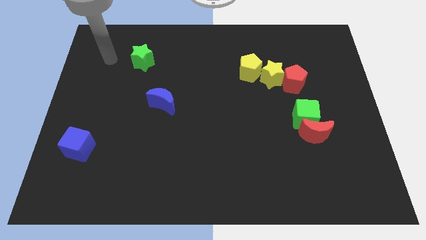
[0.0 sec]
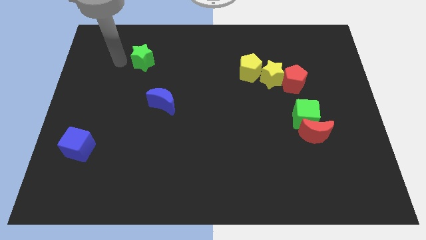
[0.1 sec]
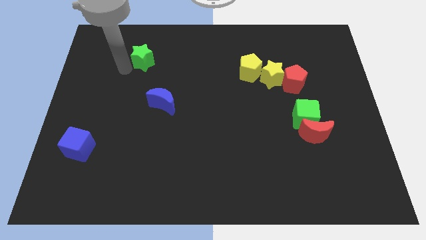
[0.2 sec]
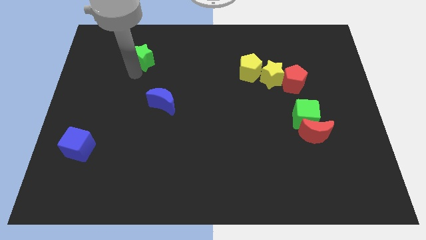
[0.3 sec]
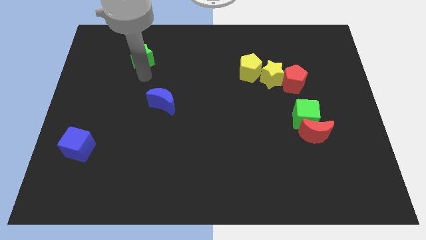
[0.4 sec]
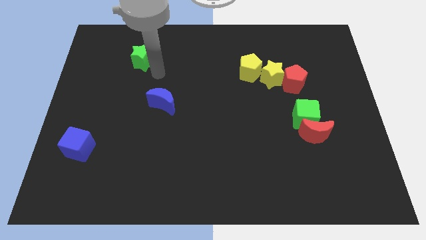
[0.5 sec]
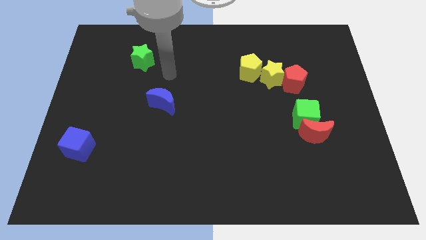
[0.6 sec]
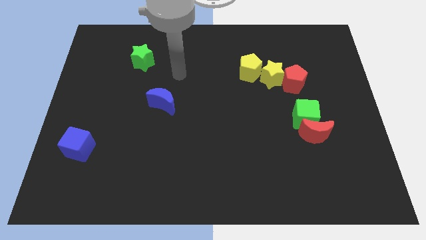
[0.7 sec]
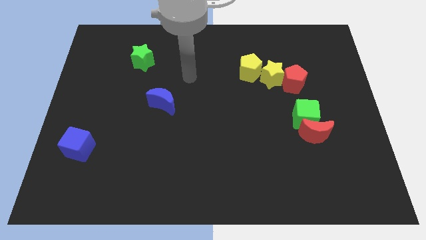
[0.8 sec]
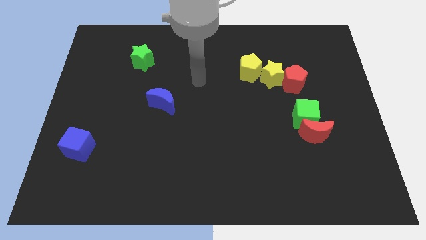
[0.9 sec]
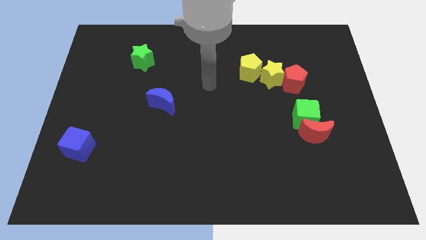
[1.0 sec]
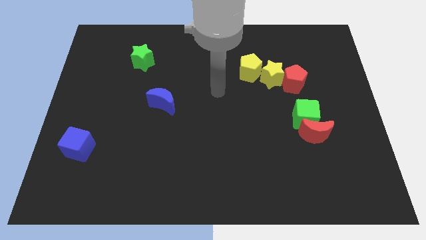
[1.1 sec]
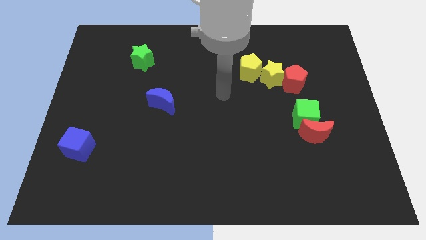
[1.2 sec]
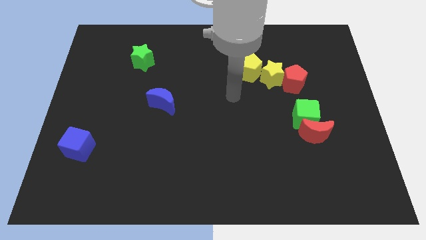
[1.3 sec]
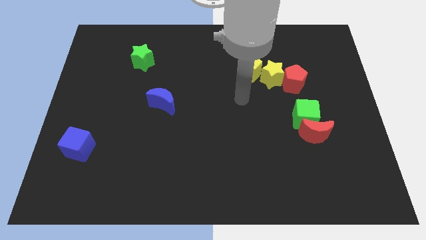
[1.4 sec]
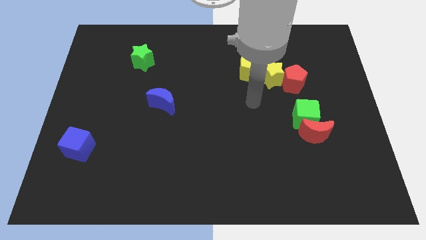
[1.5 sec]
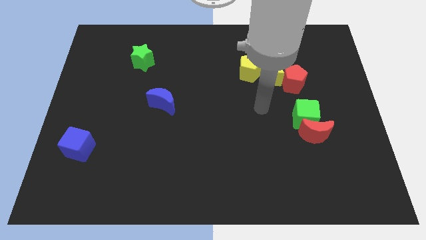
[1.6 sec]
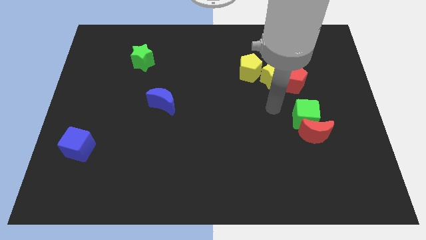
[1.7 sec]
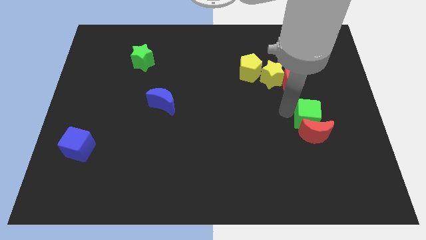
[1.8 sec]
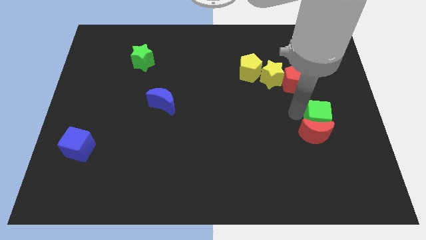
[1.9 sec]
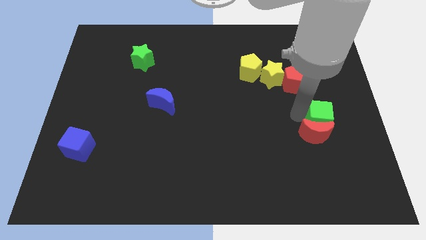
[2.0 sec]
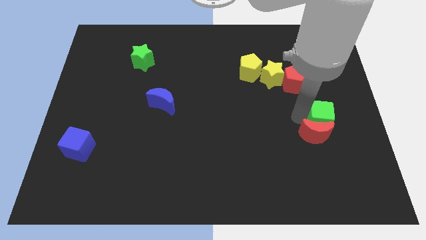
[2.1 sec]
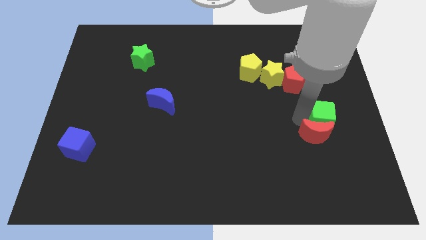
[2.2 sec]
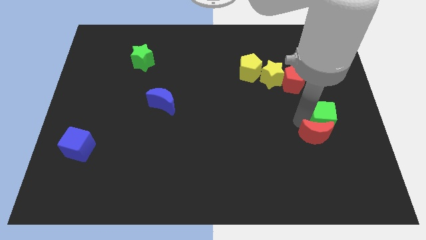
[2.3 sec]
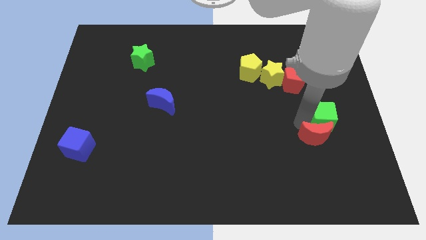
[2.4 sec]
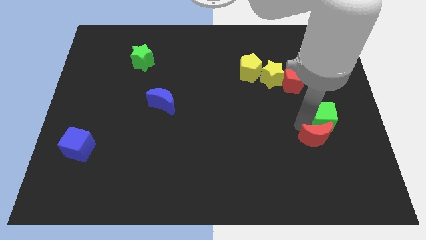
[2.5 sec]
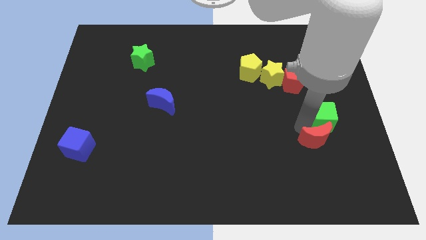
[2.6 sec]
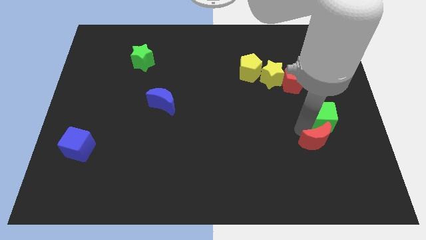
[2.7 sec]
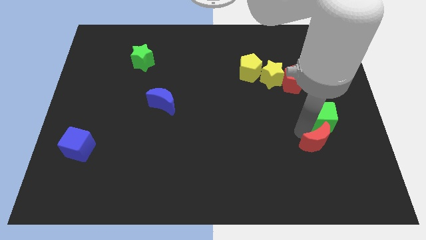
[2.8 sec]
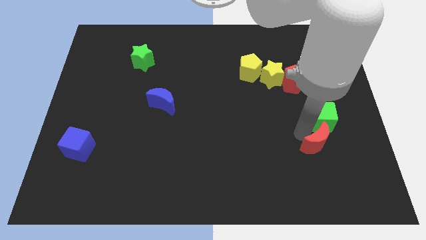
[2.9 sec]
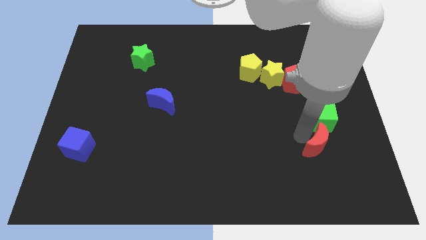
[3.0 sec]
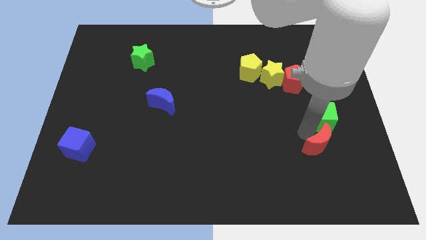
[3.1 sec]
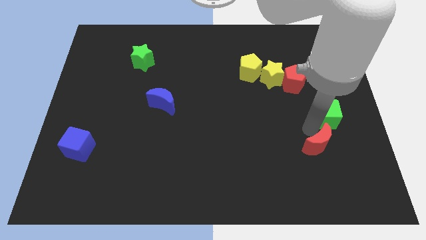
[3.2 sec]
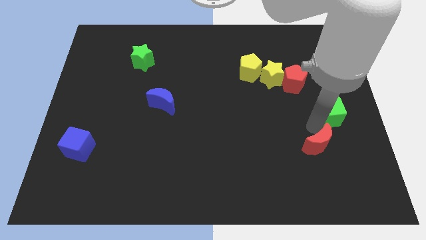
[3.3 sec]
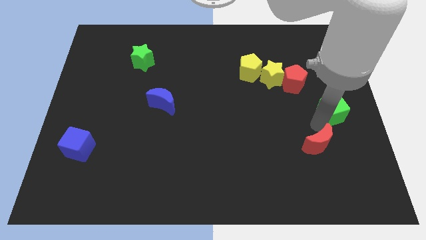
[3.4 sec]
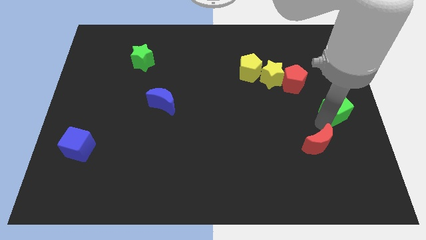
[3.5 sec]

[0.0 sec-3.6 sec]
separate the red moon from the green cube

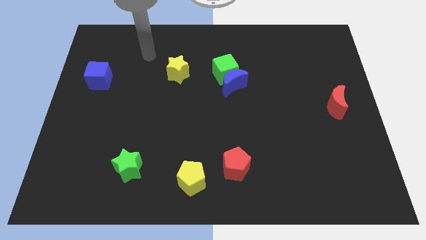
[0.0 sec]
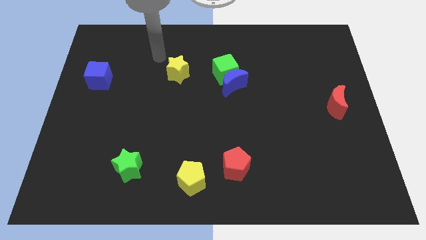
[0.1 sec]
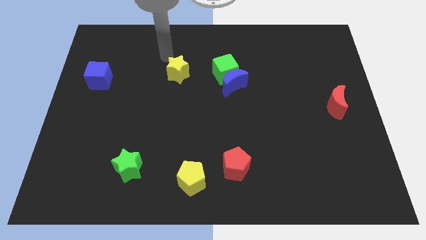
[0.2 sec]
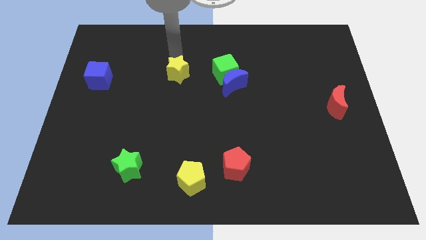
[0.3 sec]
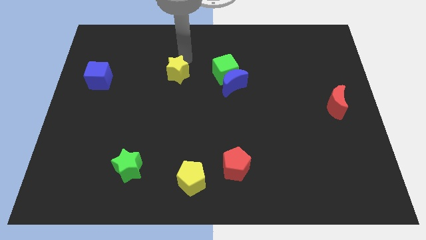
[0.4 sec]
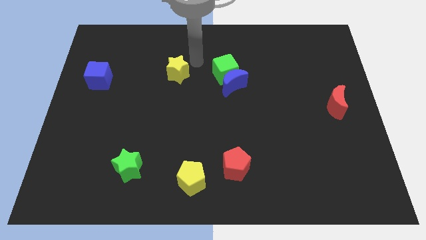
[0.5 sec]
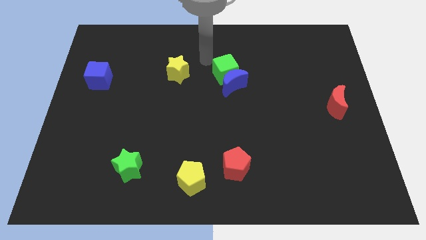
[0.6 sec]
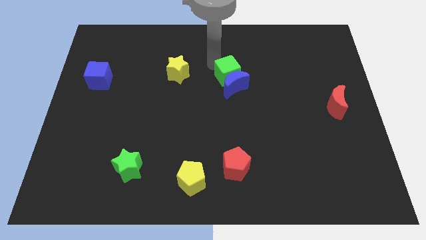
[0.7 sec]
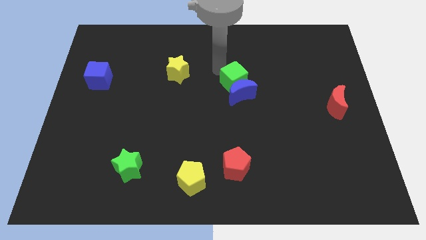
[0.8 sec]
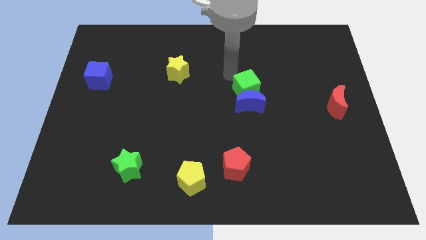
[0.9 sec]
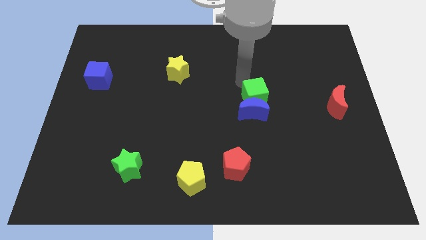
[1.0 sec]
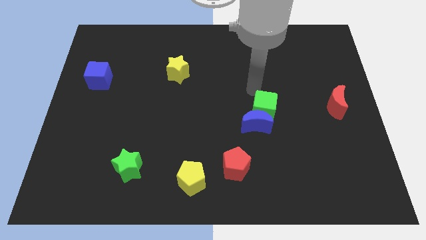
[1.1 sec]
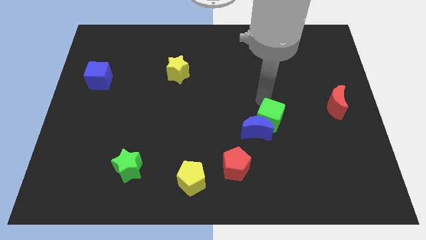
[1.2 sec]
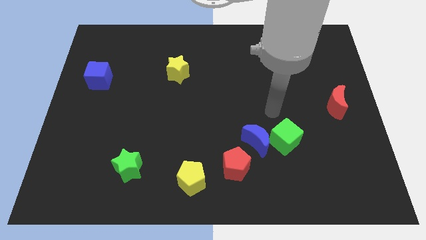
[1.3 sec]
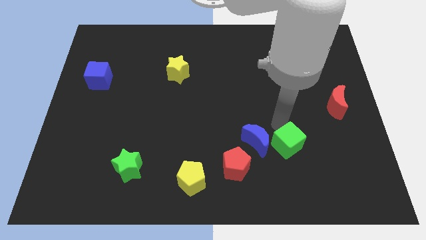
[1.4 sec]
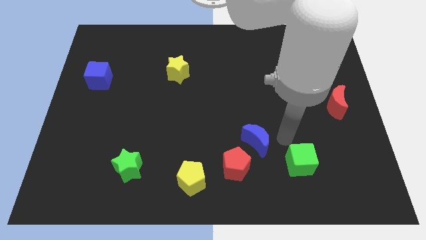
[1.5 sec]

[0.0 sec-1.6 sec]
pull the blue moon apart from the green cube

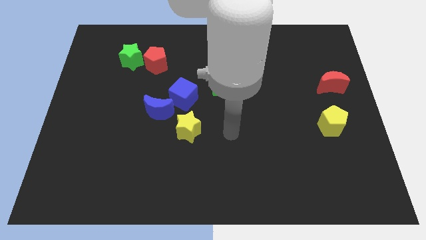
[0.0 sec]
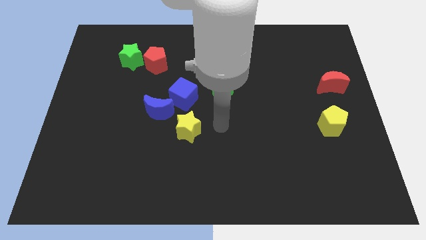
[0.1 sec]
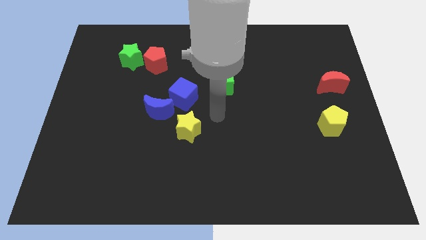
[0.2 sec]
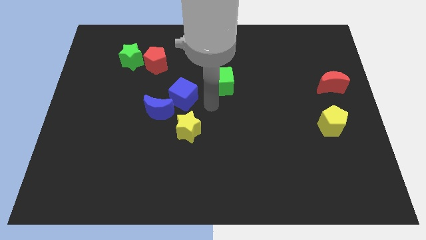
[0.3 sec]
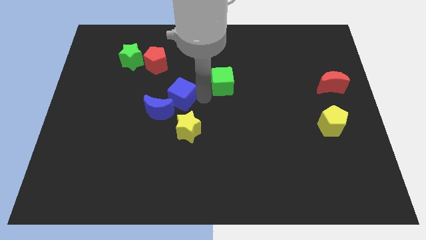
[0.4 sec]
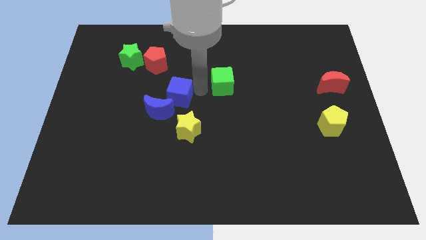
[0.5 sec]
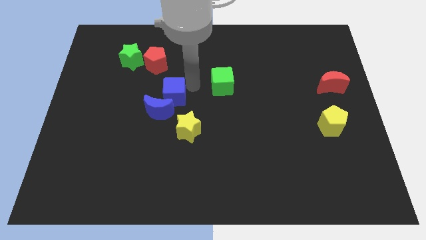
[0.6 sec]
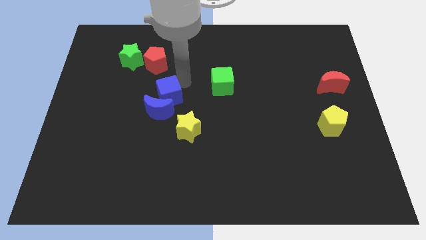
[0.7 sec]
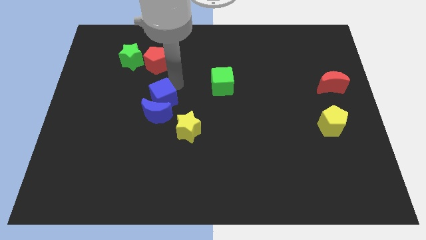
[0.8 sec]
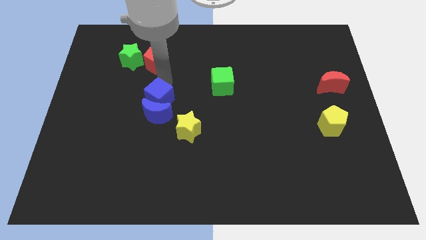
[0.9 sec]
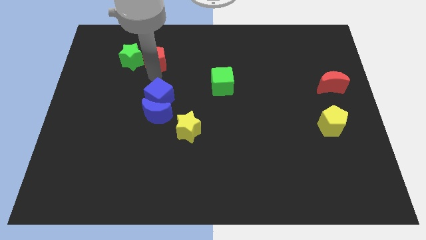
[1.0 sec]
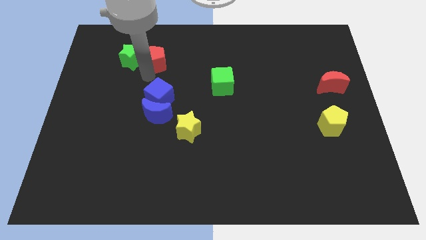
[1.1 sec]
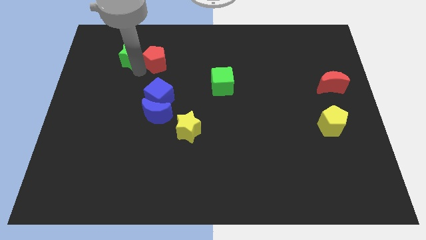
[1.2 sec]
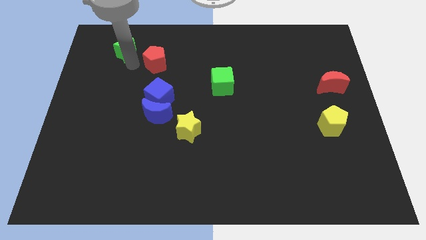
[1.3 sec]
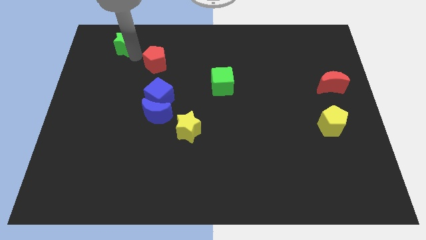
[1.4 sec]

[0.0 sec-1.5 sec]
pull the red pentagon apart from the green star

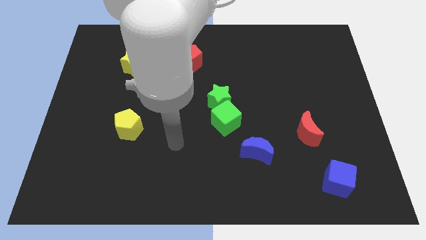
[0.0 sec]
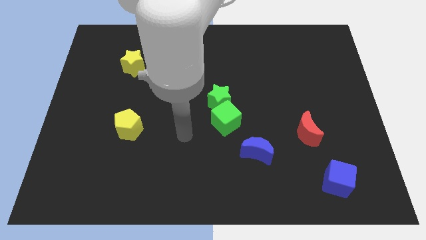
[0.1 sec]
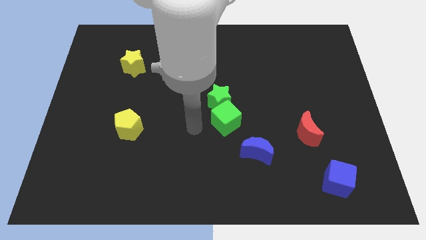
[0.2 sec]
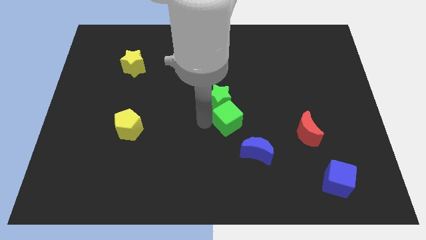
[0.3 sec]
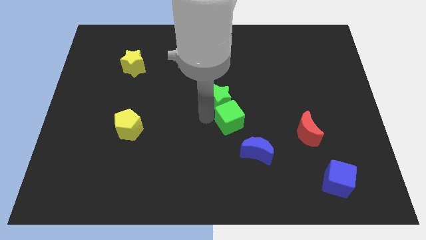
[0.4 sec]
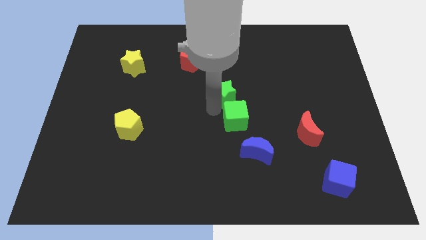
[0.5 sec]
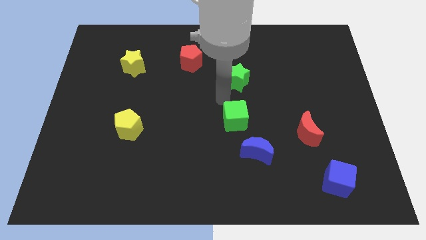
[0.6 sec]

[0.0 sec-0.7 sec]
pull the green cube apart from the green star

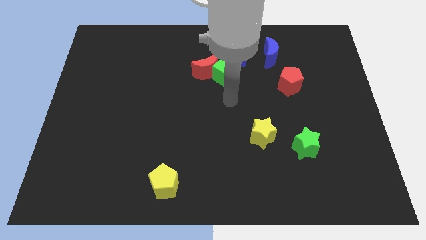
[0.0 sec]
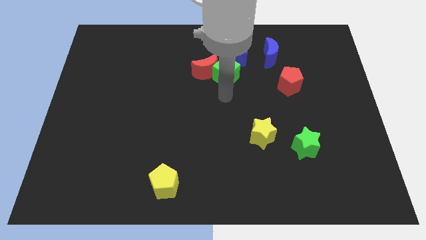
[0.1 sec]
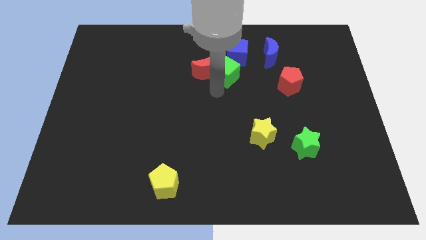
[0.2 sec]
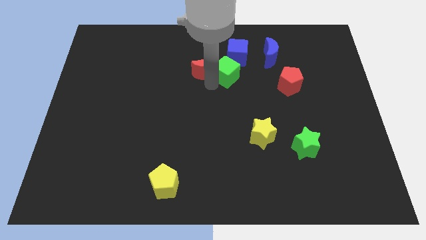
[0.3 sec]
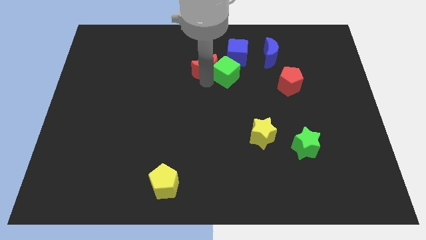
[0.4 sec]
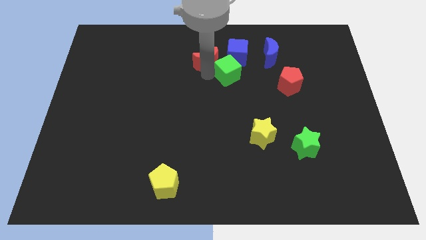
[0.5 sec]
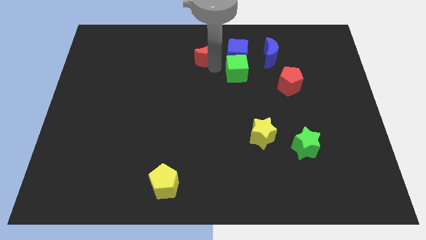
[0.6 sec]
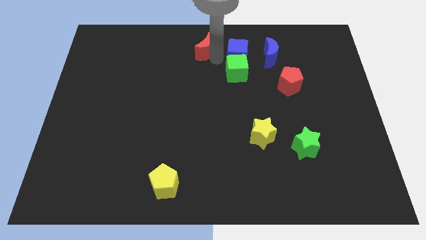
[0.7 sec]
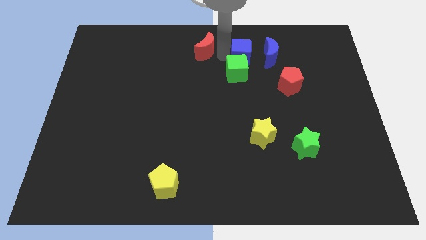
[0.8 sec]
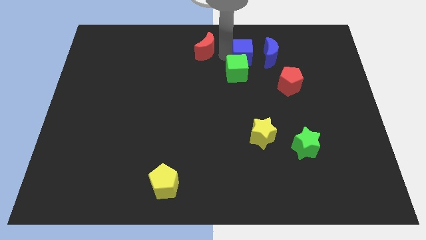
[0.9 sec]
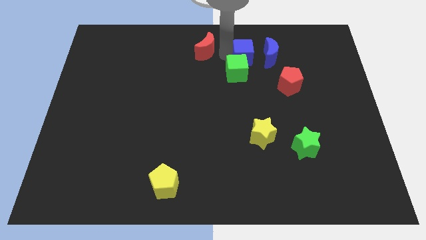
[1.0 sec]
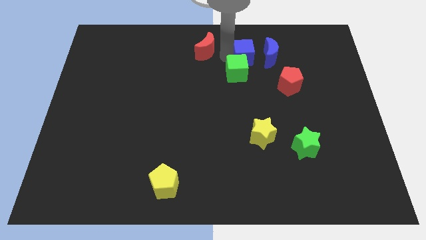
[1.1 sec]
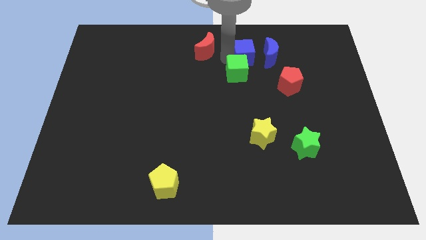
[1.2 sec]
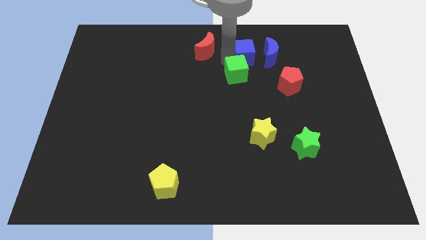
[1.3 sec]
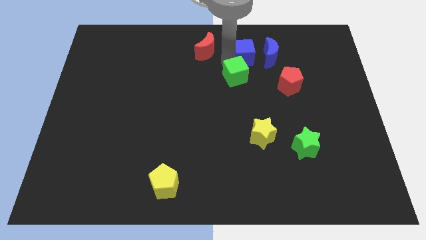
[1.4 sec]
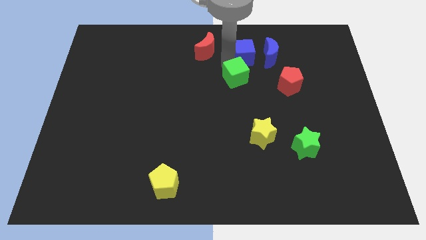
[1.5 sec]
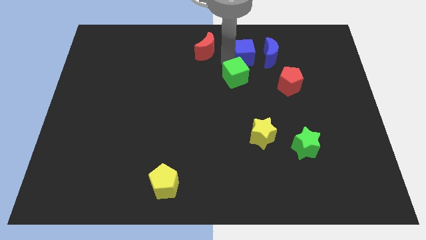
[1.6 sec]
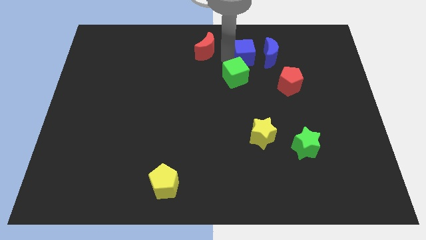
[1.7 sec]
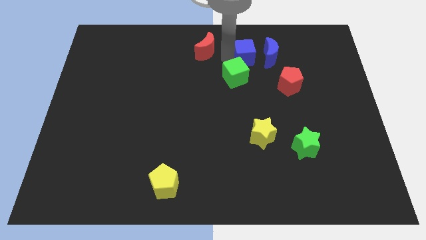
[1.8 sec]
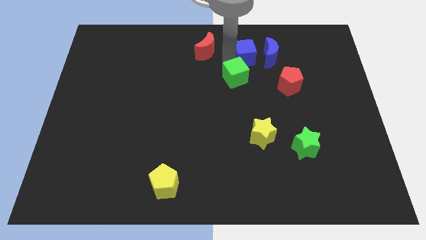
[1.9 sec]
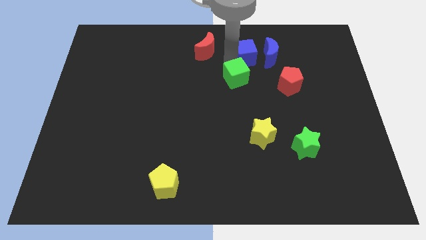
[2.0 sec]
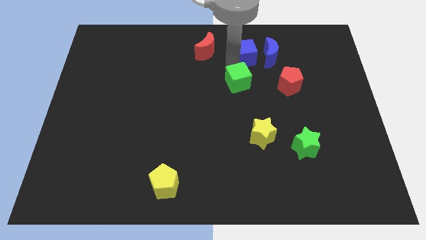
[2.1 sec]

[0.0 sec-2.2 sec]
move the green cube away from the red moon and blue cube
